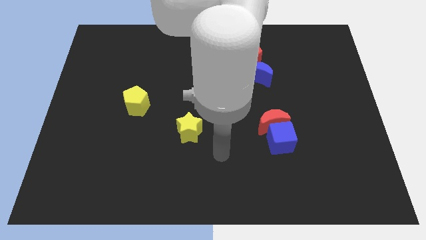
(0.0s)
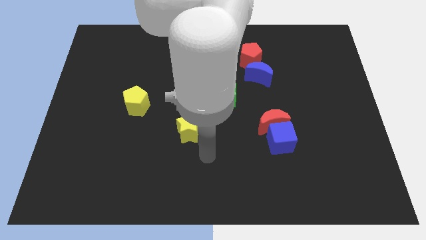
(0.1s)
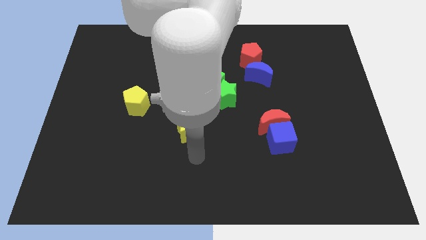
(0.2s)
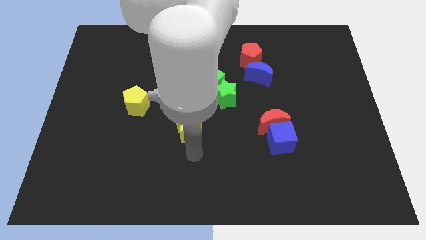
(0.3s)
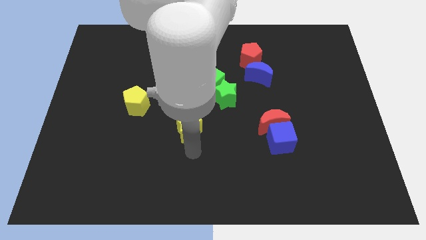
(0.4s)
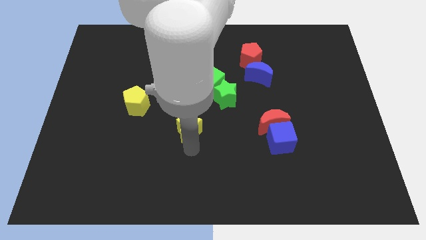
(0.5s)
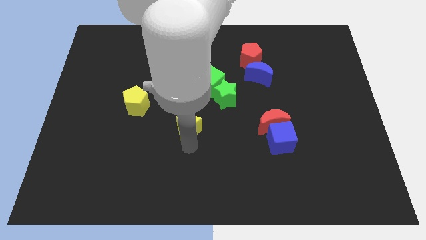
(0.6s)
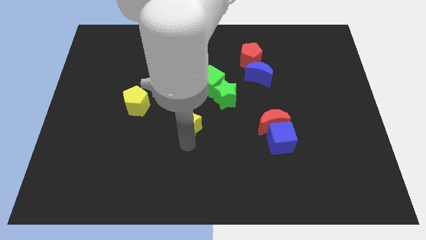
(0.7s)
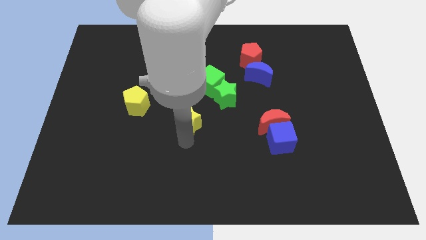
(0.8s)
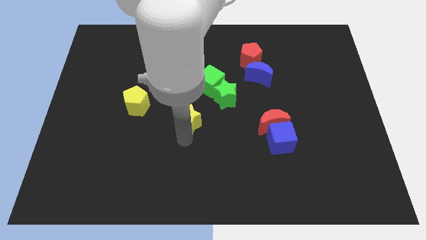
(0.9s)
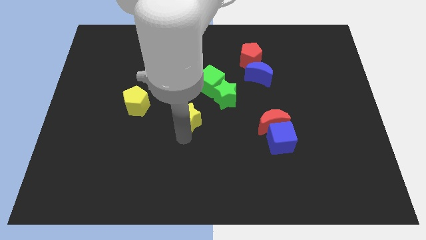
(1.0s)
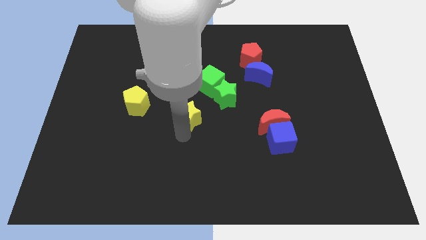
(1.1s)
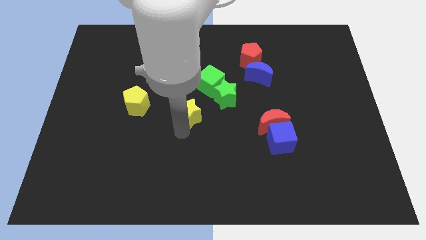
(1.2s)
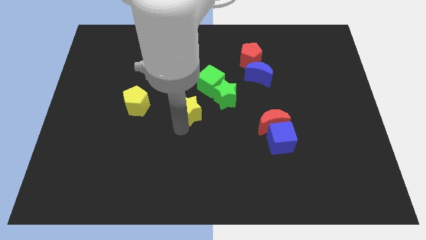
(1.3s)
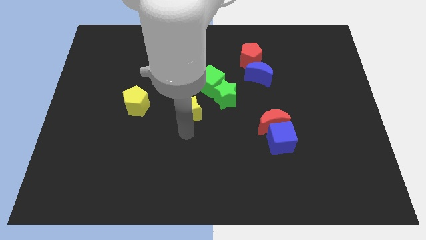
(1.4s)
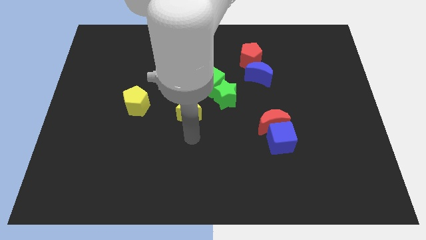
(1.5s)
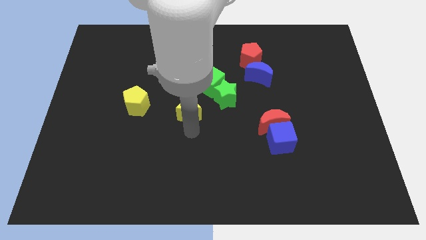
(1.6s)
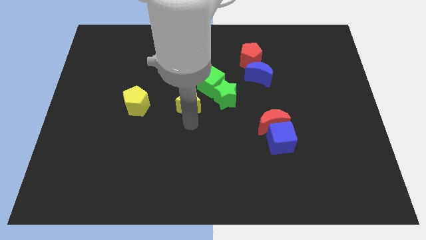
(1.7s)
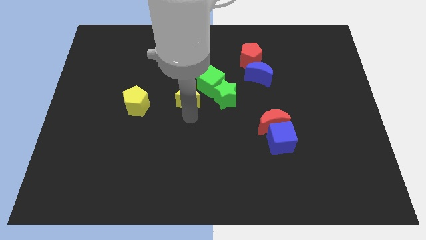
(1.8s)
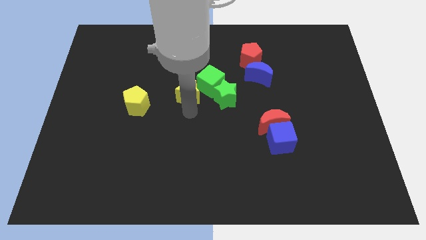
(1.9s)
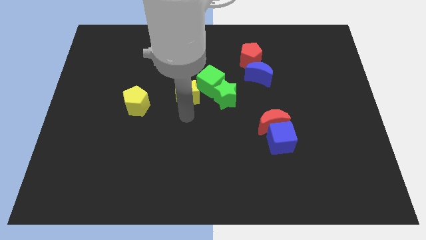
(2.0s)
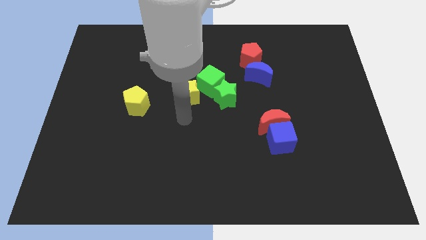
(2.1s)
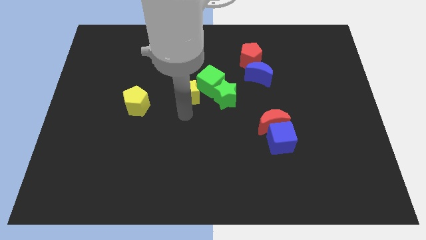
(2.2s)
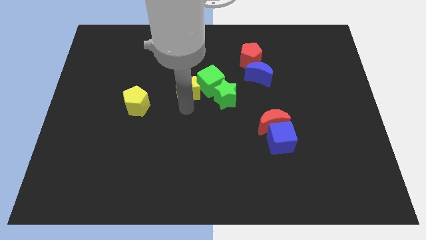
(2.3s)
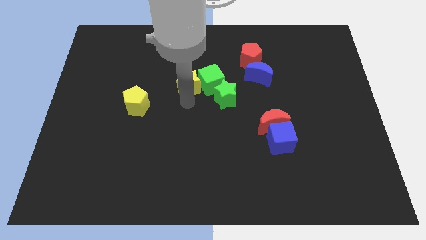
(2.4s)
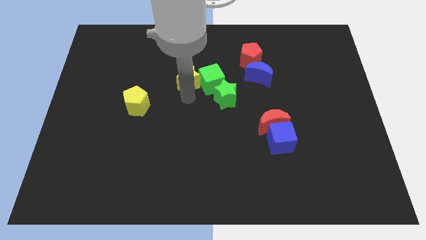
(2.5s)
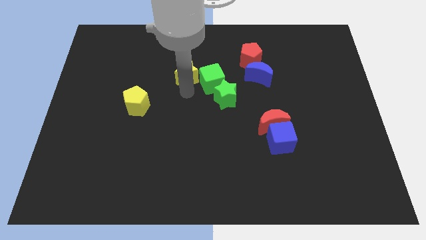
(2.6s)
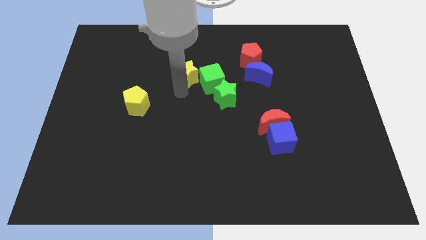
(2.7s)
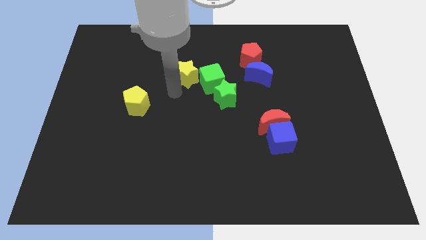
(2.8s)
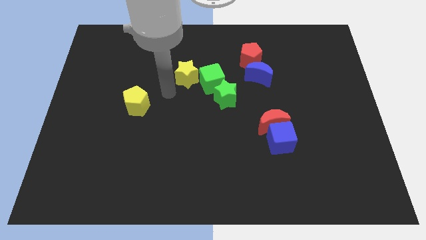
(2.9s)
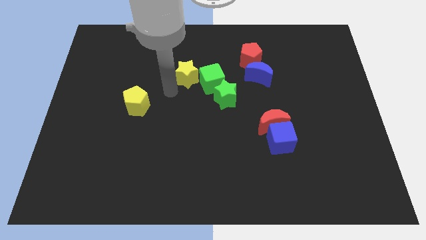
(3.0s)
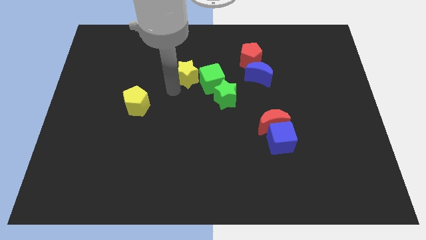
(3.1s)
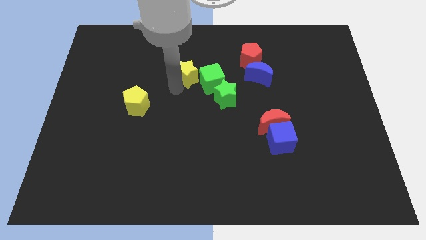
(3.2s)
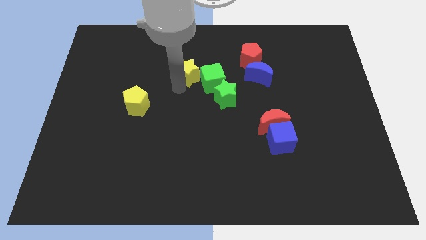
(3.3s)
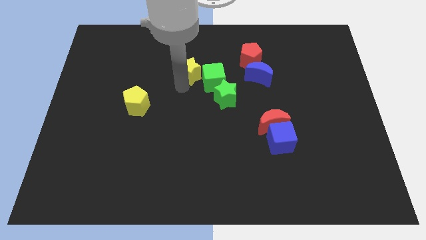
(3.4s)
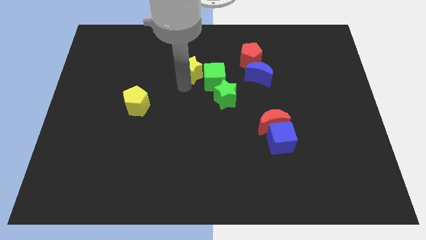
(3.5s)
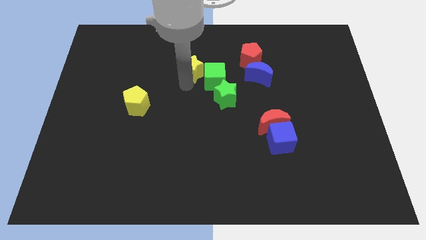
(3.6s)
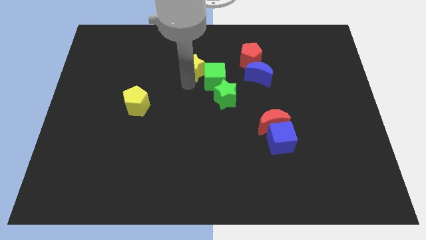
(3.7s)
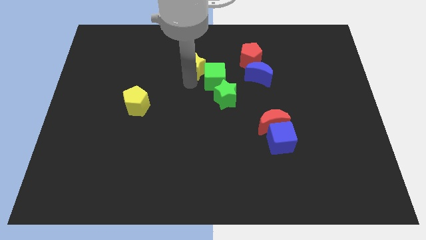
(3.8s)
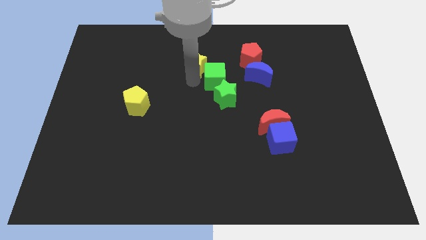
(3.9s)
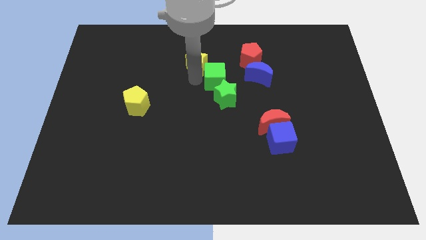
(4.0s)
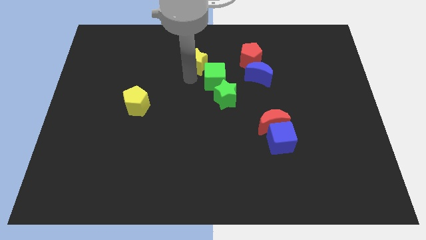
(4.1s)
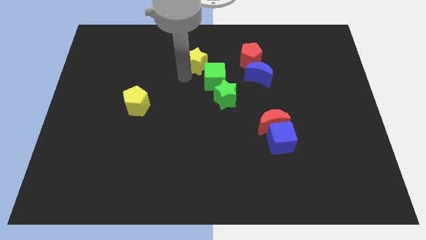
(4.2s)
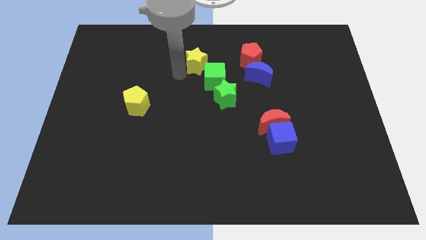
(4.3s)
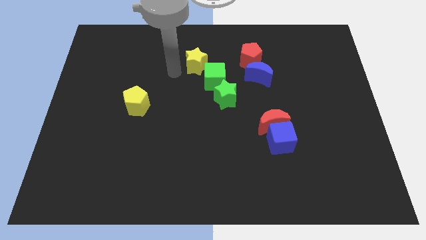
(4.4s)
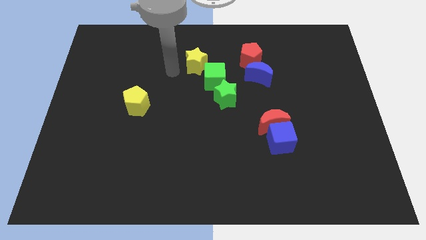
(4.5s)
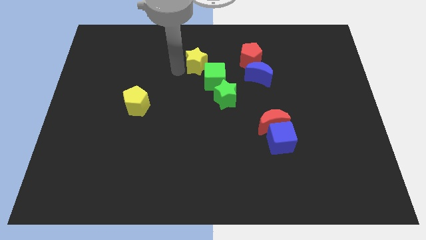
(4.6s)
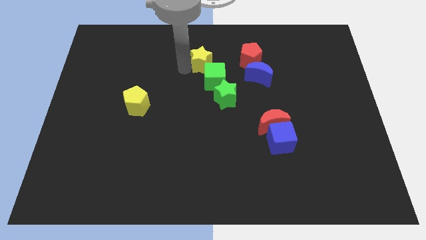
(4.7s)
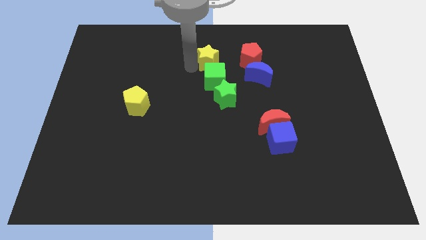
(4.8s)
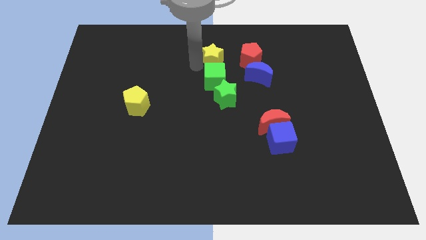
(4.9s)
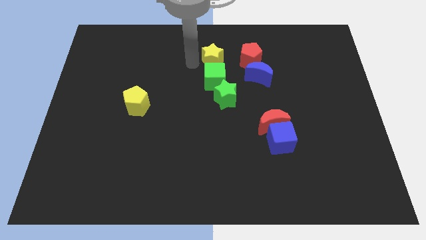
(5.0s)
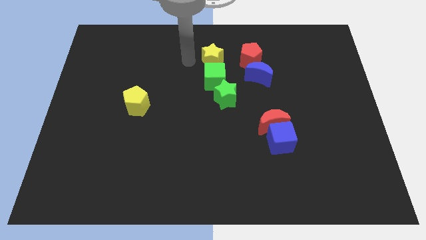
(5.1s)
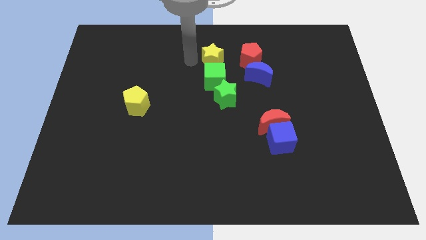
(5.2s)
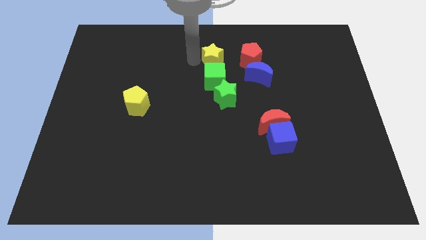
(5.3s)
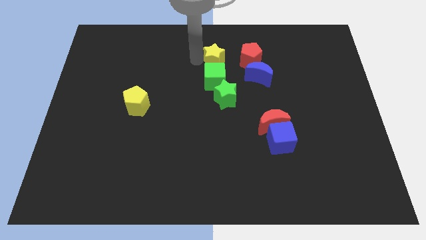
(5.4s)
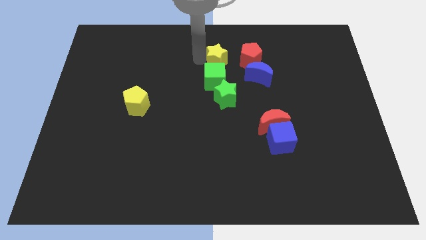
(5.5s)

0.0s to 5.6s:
push the yellow star to the top left side of the blue moon

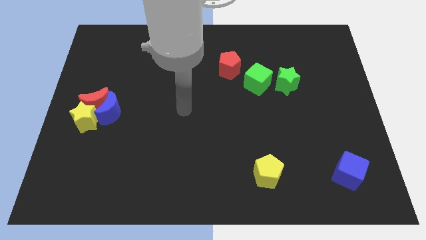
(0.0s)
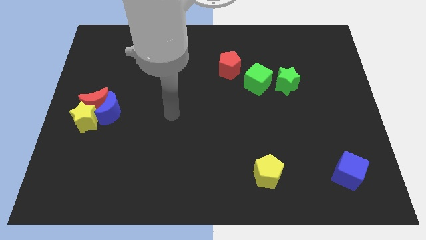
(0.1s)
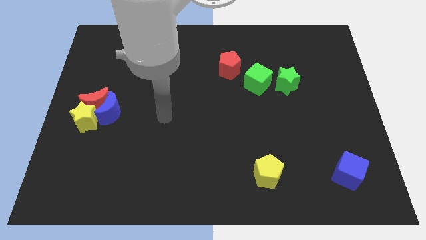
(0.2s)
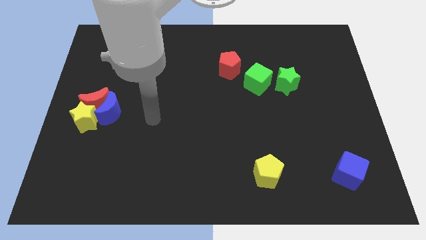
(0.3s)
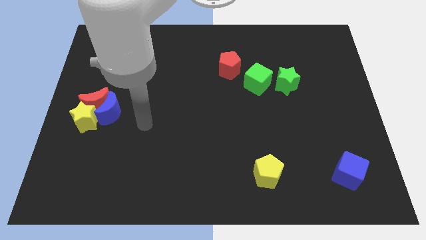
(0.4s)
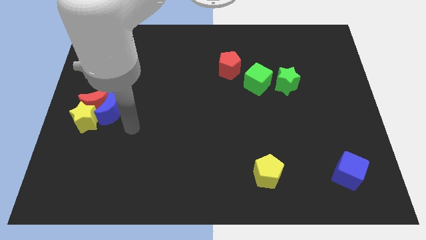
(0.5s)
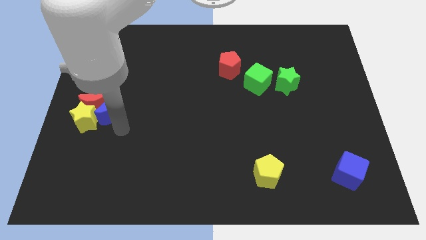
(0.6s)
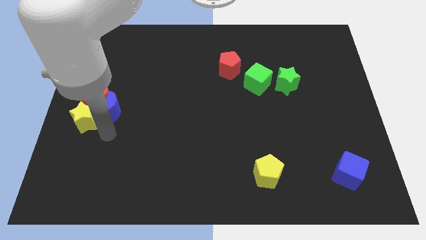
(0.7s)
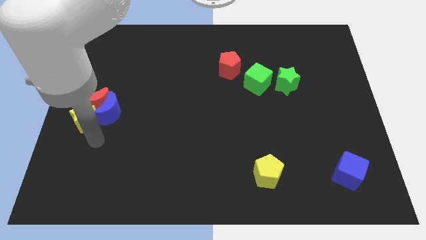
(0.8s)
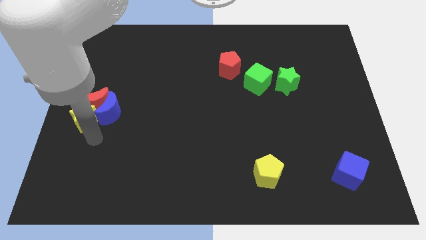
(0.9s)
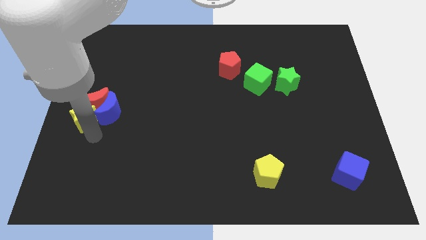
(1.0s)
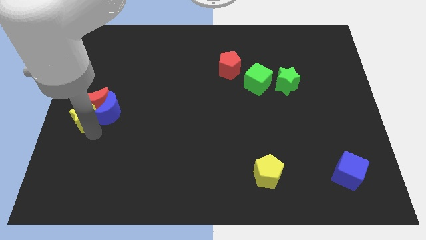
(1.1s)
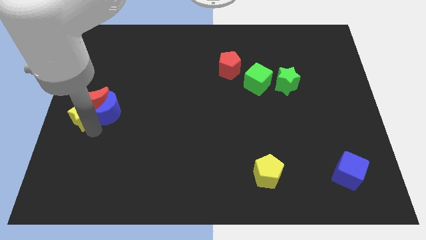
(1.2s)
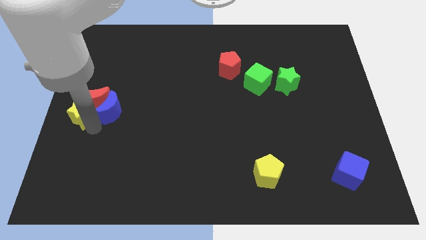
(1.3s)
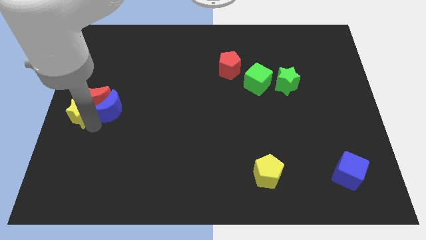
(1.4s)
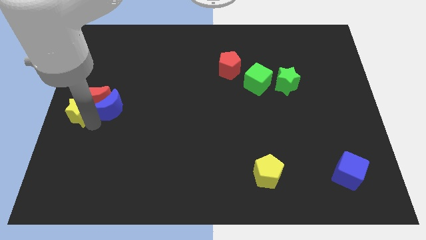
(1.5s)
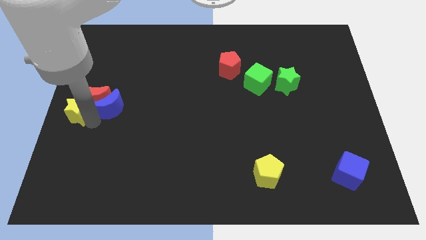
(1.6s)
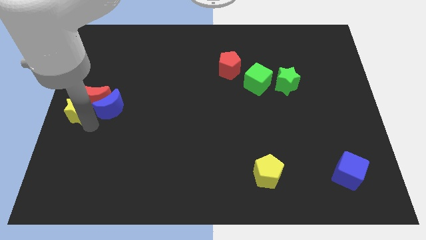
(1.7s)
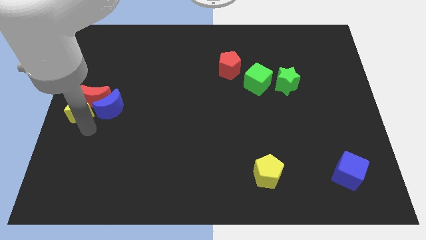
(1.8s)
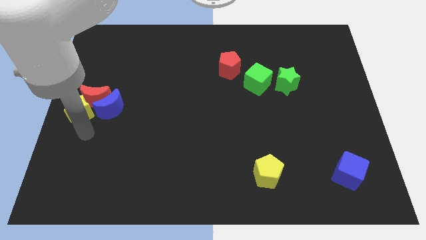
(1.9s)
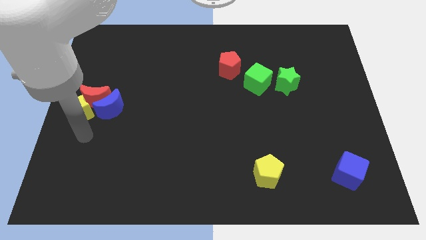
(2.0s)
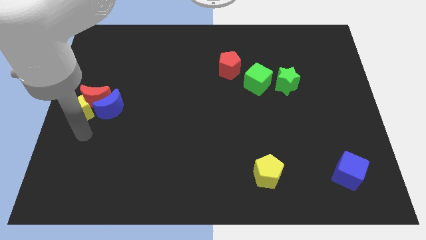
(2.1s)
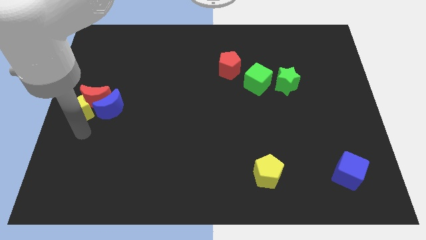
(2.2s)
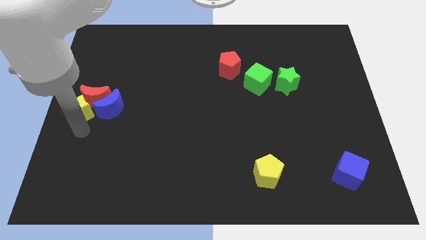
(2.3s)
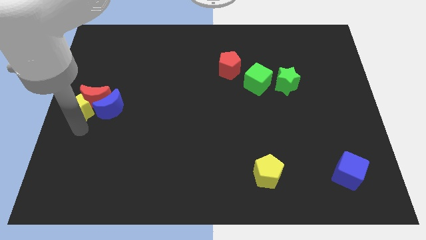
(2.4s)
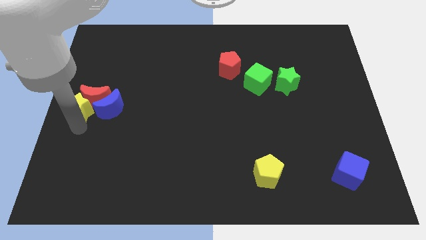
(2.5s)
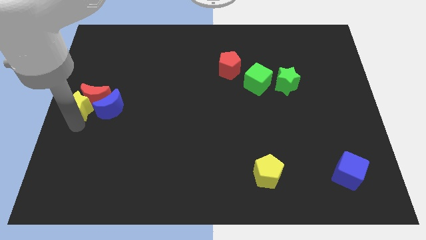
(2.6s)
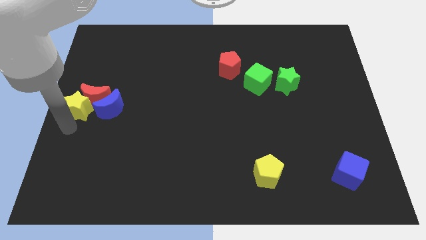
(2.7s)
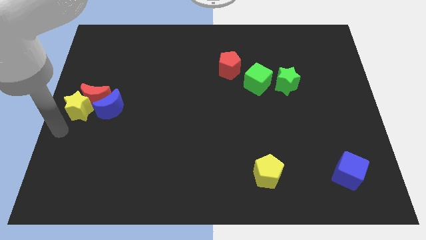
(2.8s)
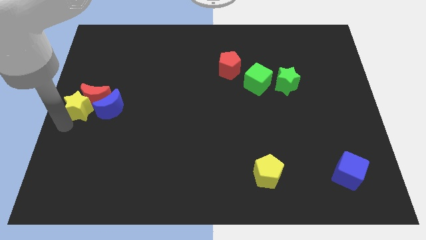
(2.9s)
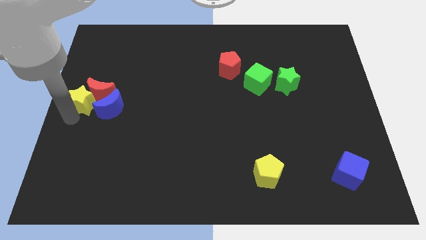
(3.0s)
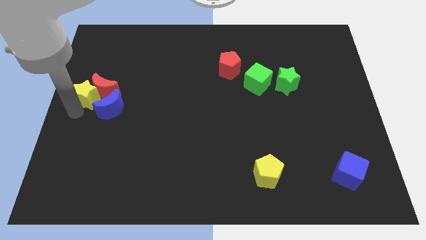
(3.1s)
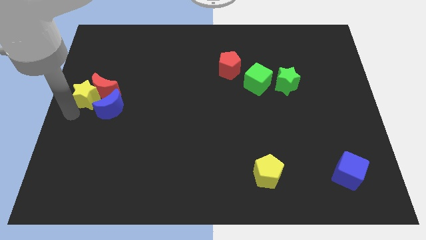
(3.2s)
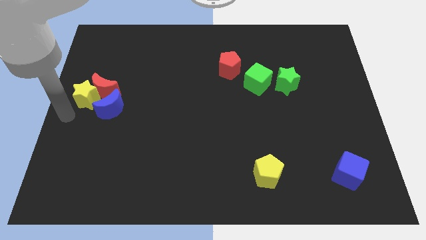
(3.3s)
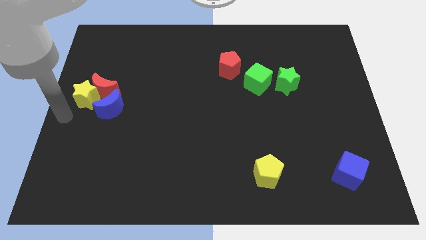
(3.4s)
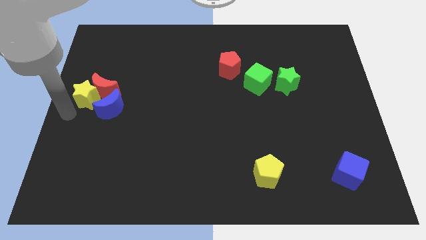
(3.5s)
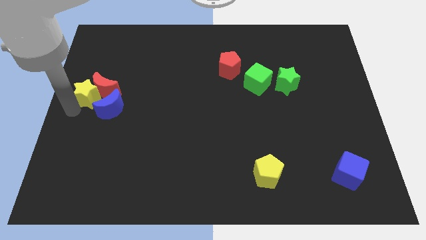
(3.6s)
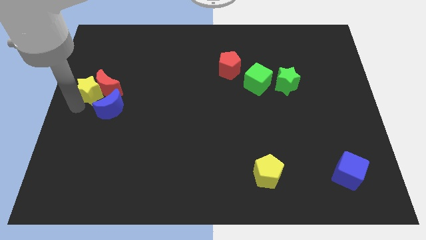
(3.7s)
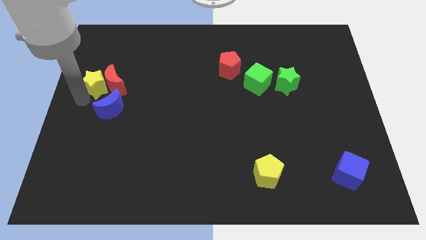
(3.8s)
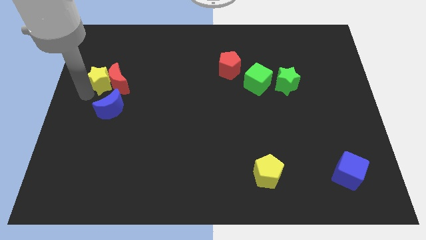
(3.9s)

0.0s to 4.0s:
push the yellow star to the top of the blue moon
